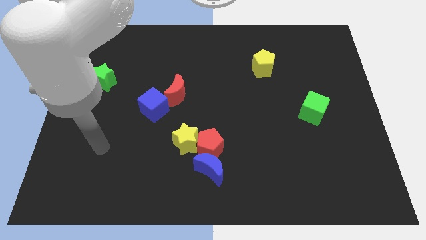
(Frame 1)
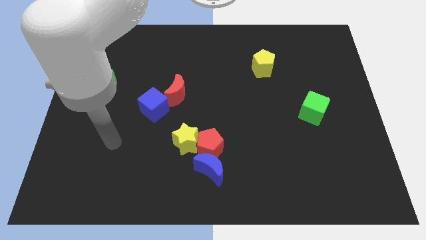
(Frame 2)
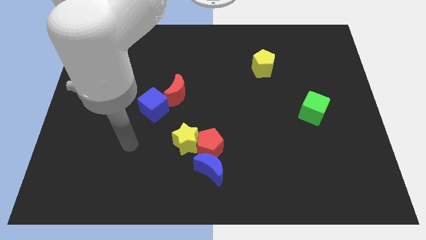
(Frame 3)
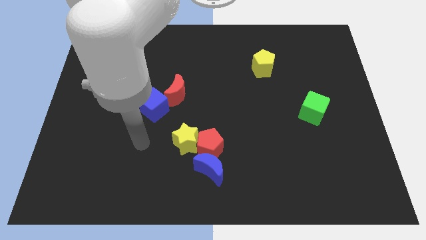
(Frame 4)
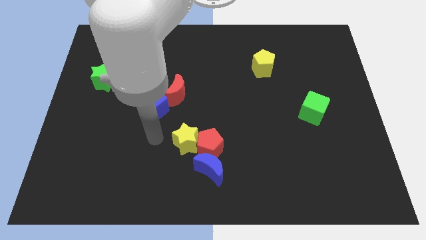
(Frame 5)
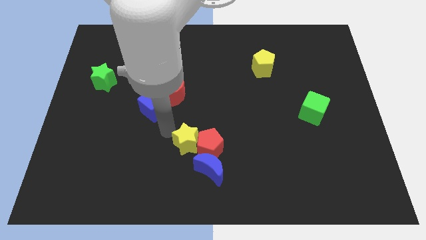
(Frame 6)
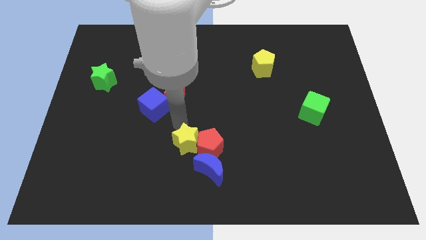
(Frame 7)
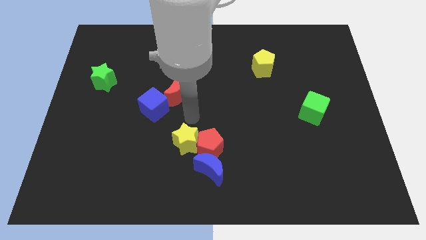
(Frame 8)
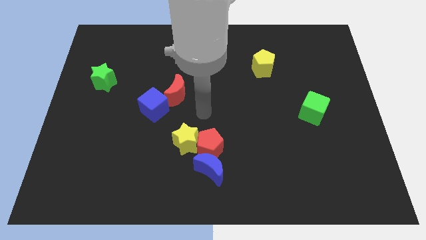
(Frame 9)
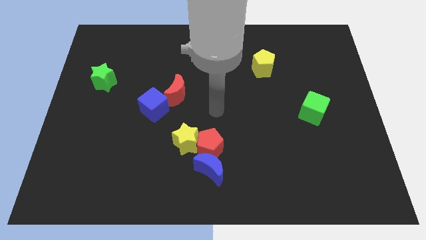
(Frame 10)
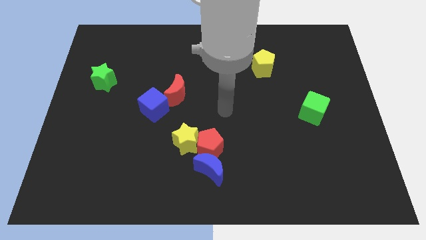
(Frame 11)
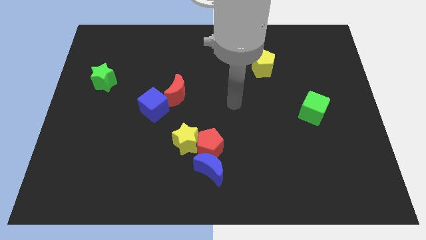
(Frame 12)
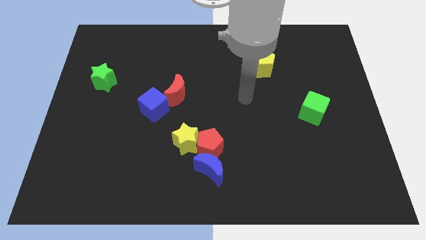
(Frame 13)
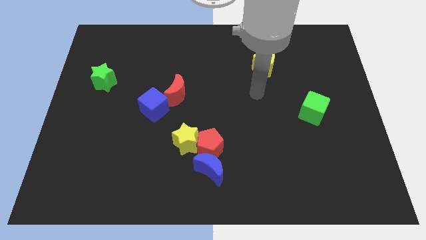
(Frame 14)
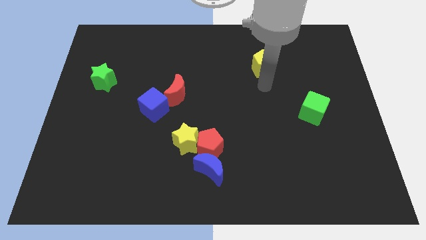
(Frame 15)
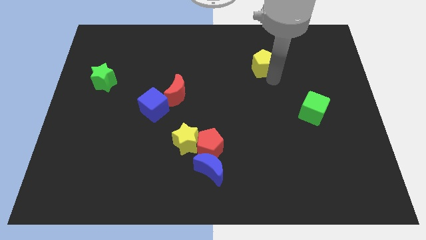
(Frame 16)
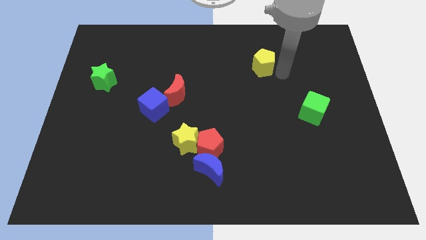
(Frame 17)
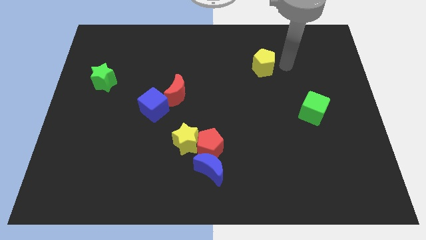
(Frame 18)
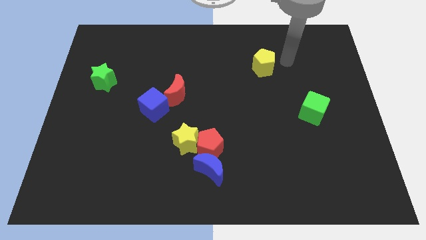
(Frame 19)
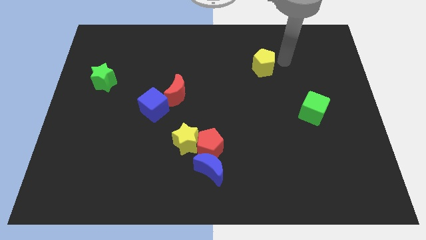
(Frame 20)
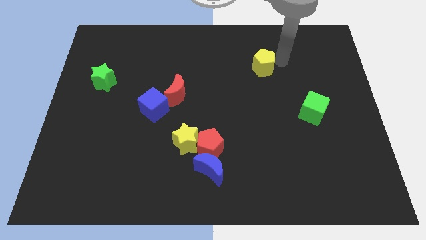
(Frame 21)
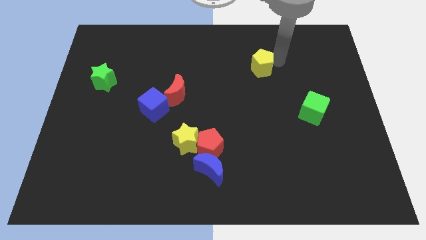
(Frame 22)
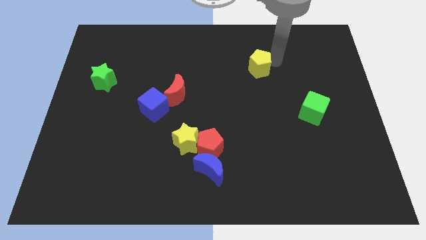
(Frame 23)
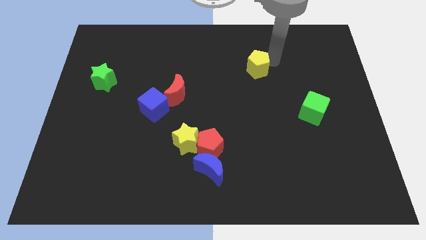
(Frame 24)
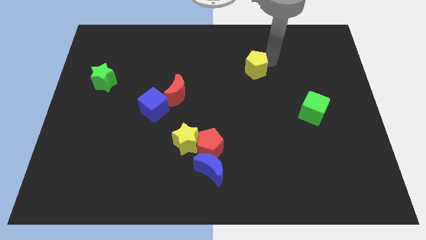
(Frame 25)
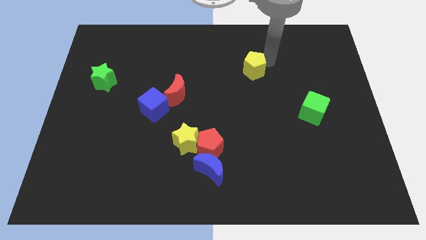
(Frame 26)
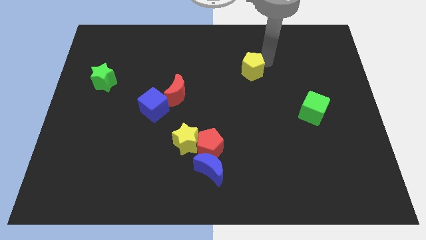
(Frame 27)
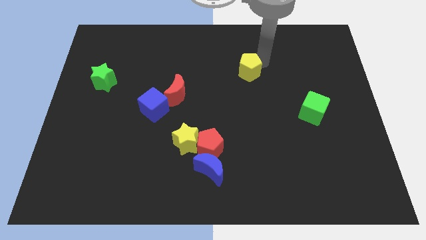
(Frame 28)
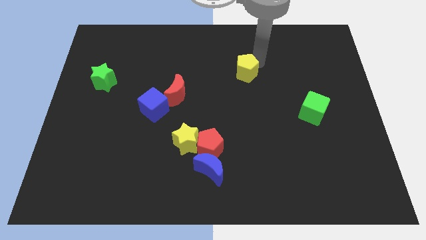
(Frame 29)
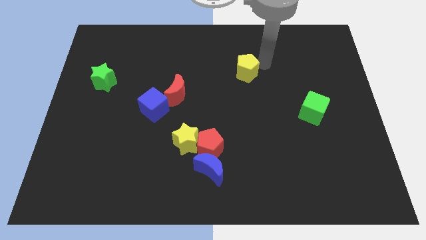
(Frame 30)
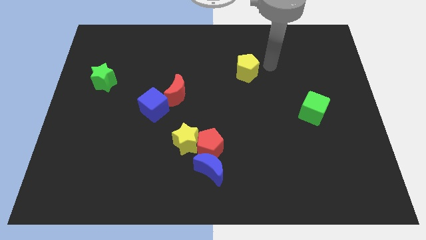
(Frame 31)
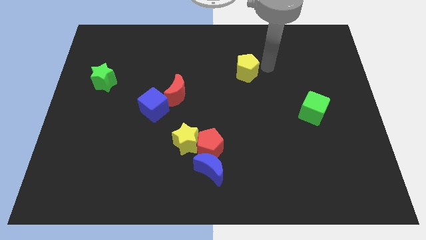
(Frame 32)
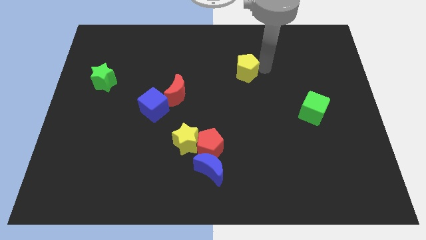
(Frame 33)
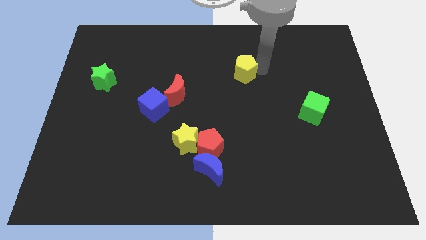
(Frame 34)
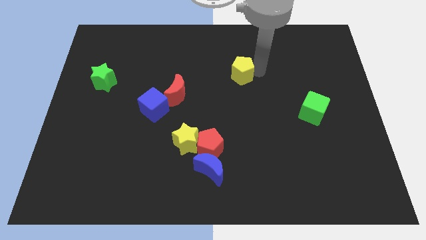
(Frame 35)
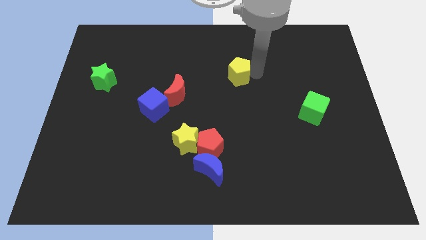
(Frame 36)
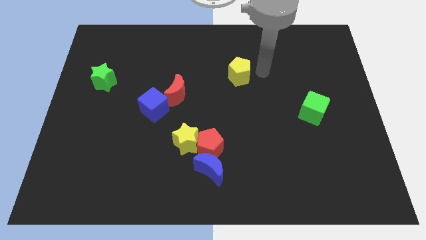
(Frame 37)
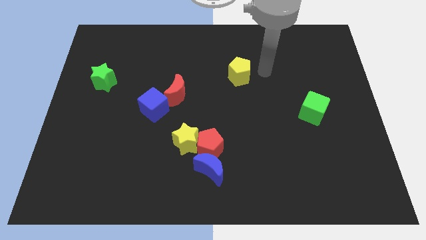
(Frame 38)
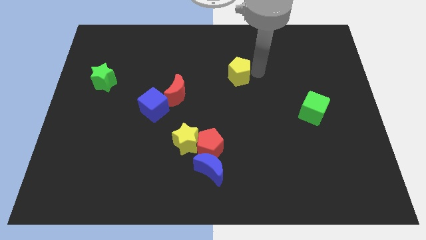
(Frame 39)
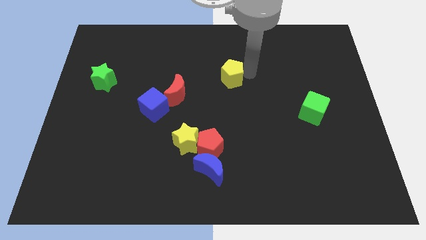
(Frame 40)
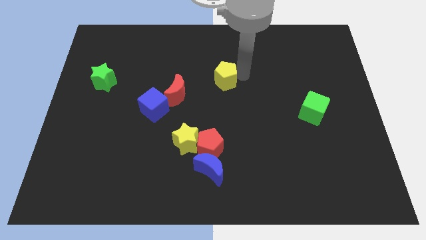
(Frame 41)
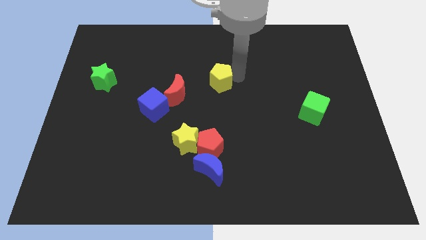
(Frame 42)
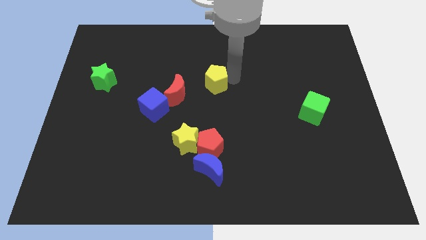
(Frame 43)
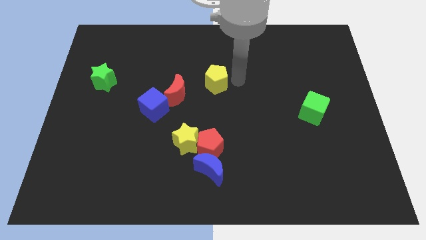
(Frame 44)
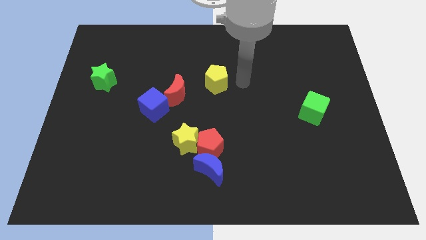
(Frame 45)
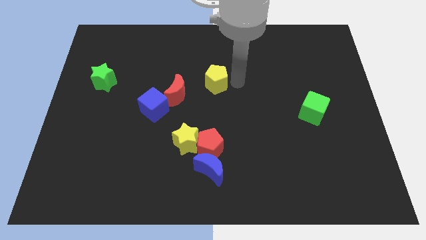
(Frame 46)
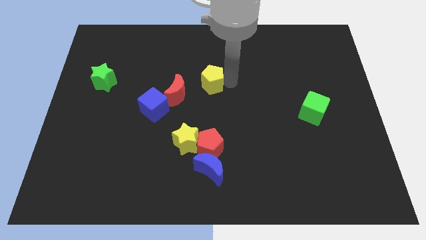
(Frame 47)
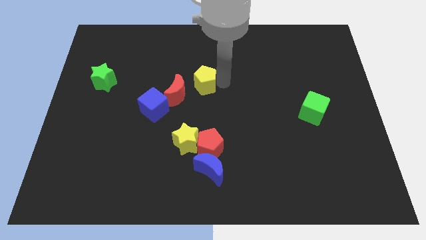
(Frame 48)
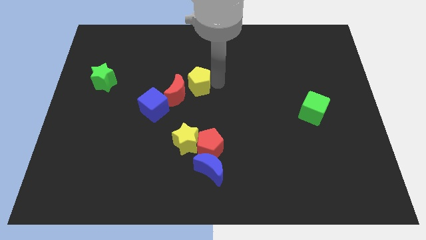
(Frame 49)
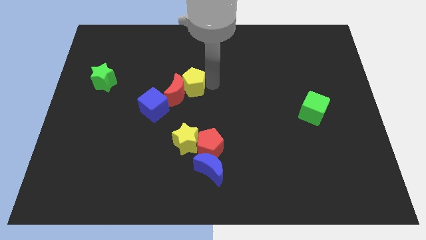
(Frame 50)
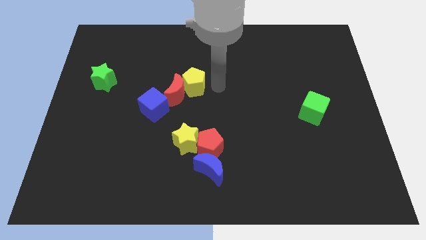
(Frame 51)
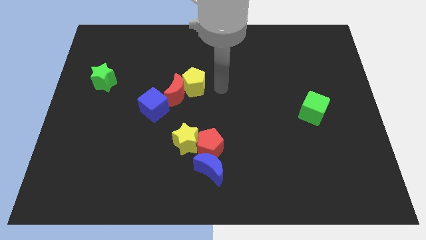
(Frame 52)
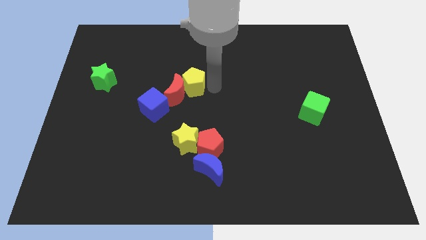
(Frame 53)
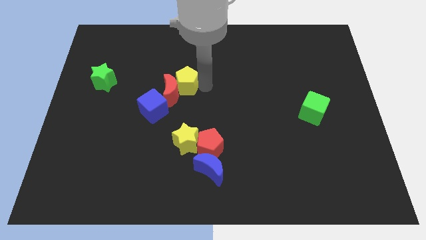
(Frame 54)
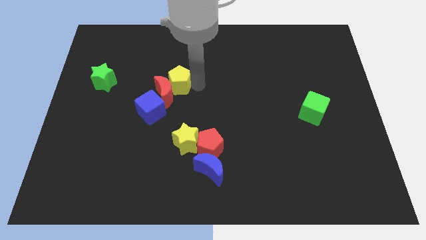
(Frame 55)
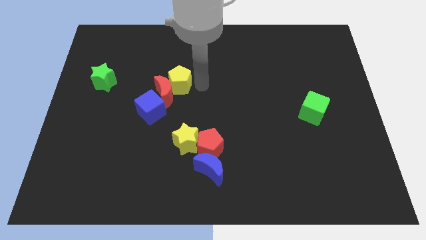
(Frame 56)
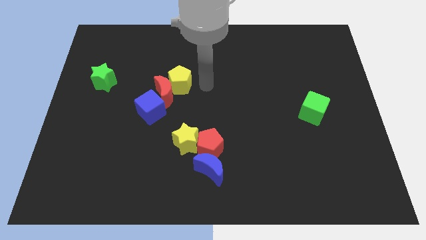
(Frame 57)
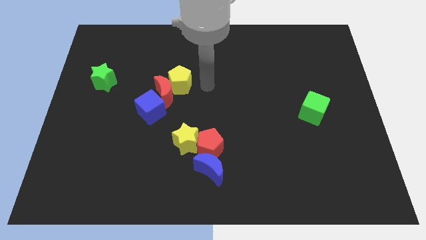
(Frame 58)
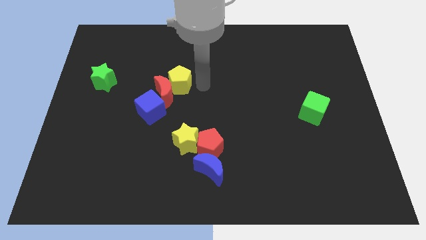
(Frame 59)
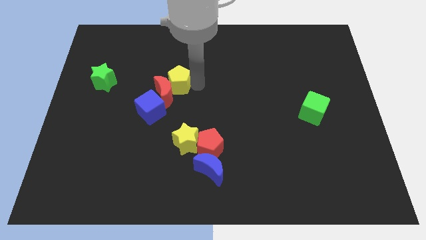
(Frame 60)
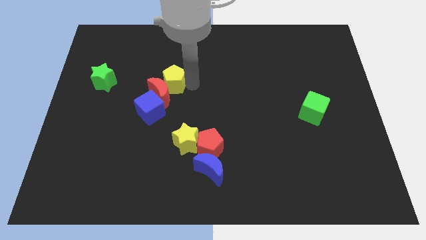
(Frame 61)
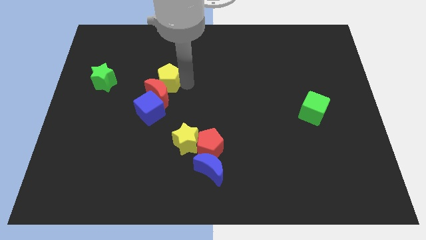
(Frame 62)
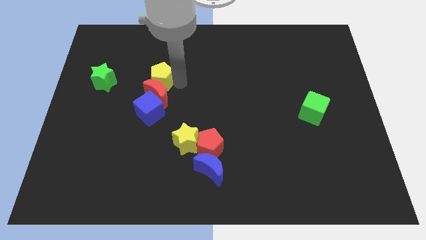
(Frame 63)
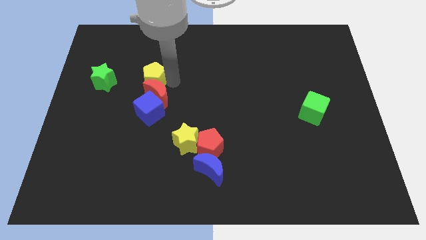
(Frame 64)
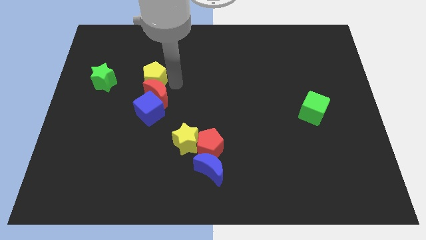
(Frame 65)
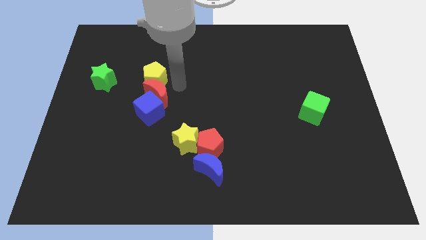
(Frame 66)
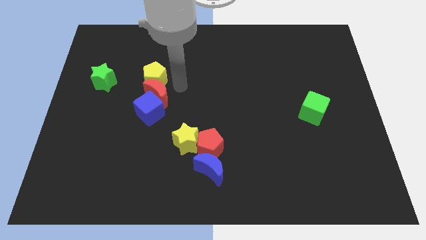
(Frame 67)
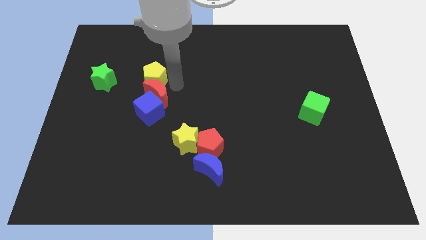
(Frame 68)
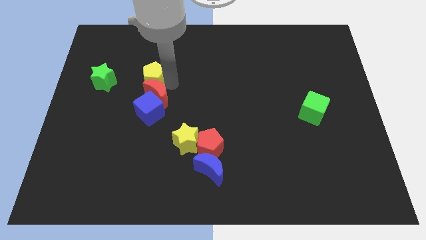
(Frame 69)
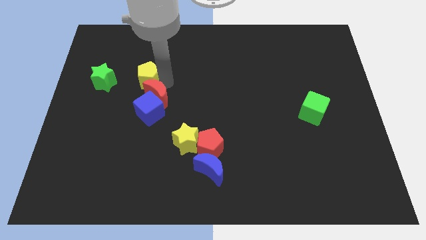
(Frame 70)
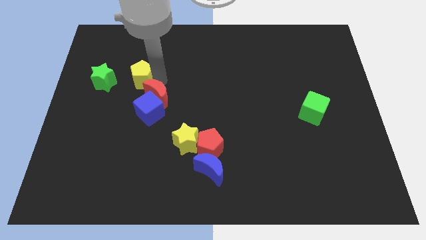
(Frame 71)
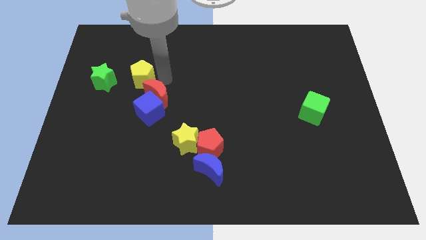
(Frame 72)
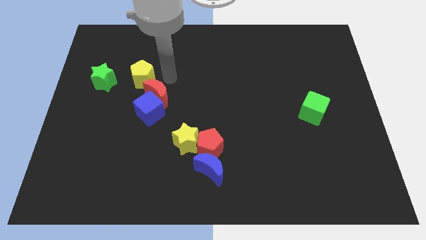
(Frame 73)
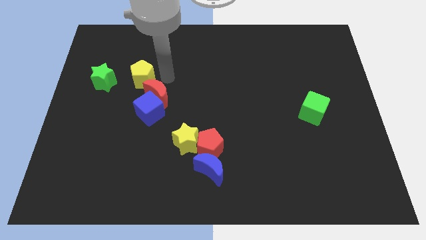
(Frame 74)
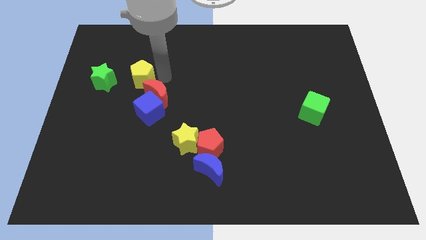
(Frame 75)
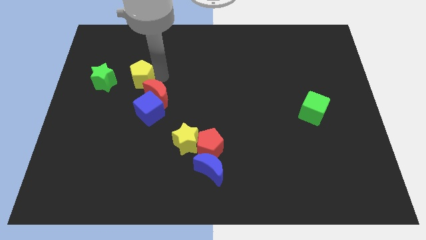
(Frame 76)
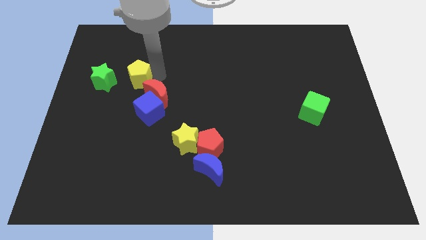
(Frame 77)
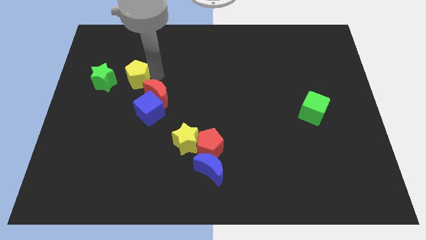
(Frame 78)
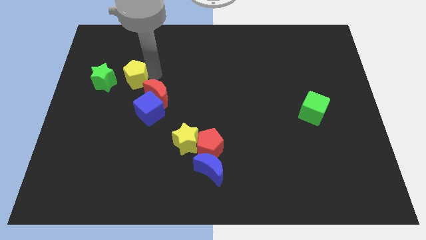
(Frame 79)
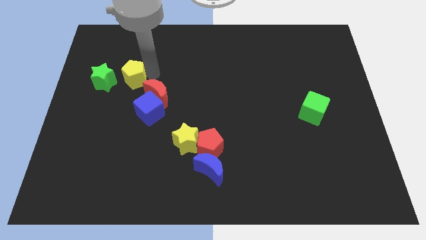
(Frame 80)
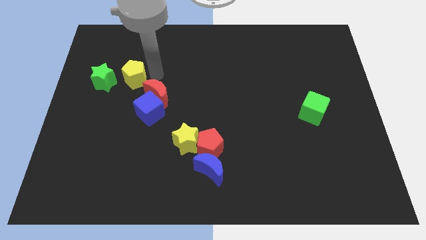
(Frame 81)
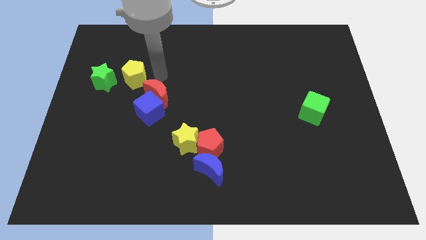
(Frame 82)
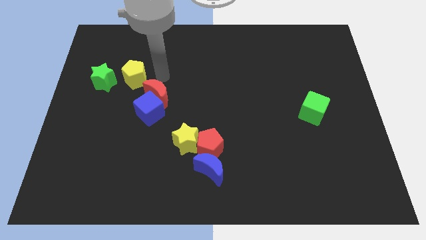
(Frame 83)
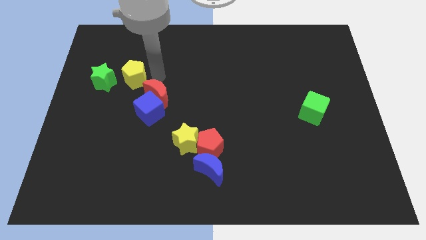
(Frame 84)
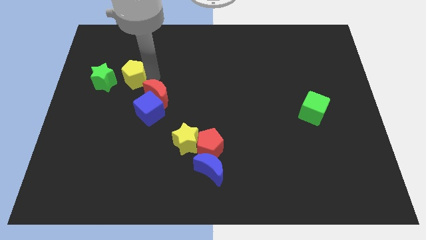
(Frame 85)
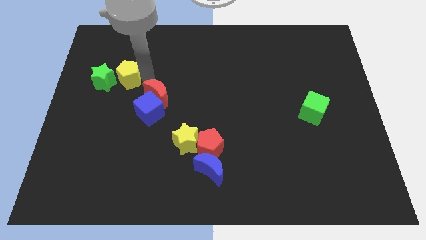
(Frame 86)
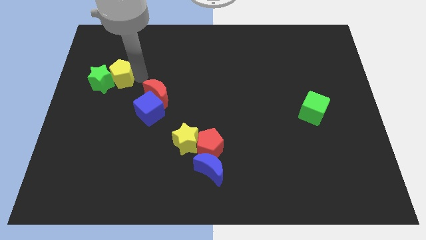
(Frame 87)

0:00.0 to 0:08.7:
move the yellow pentagon to the green star
